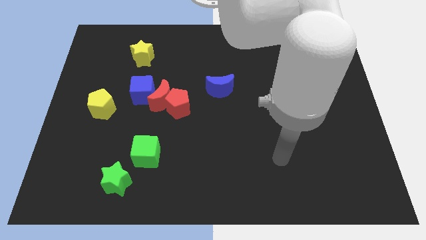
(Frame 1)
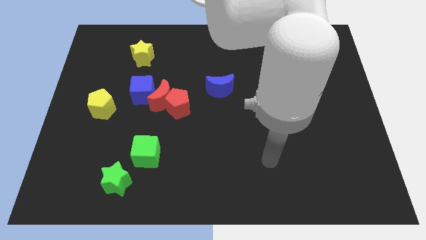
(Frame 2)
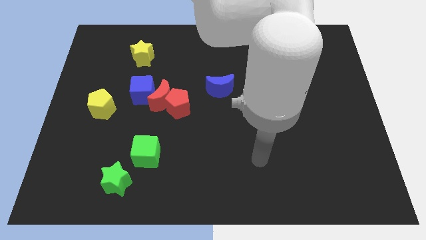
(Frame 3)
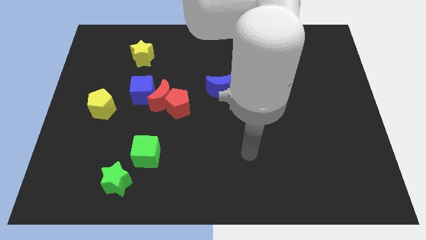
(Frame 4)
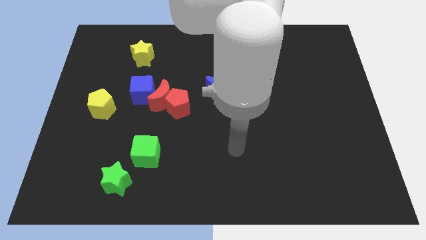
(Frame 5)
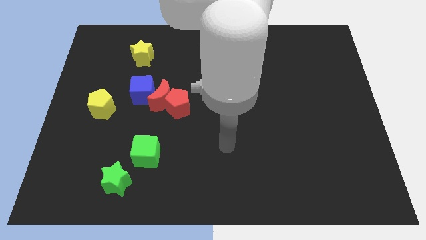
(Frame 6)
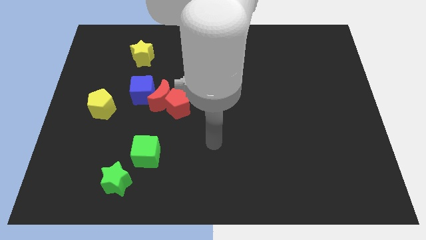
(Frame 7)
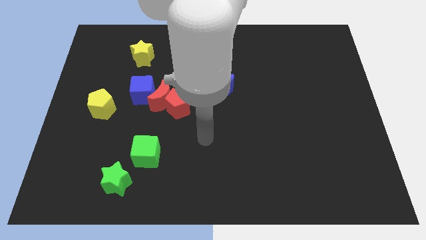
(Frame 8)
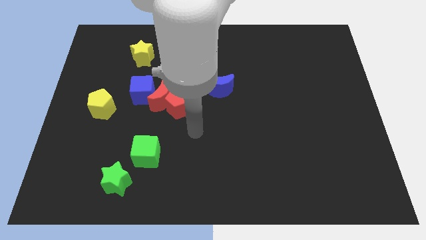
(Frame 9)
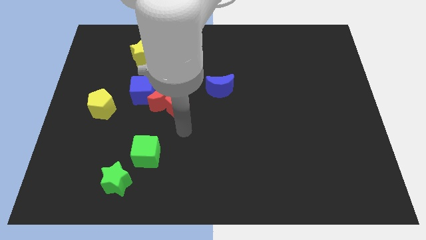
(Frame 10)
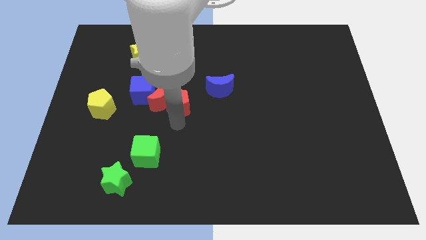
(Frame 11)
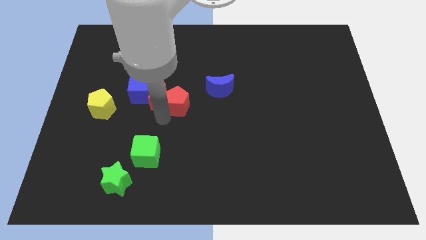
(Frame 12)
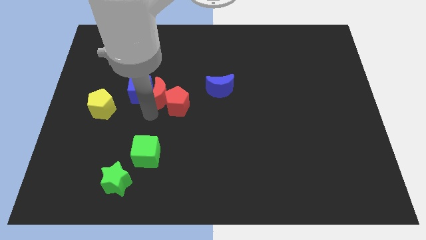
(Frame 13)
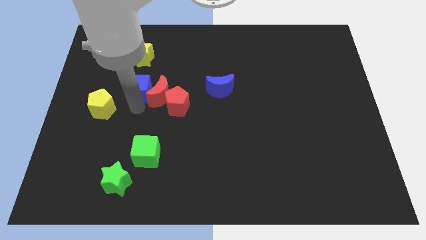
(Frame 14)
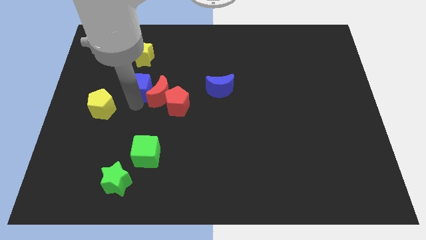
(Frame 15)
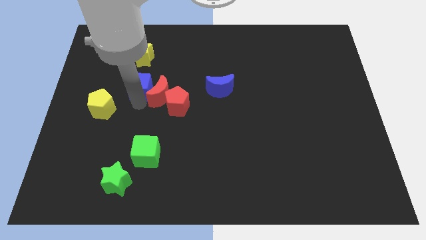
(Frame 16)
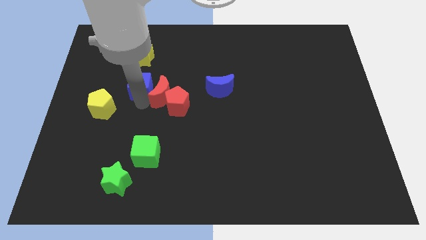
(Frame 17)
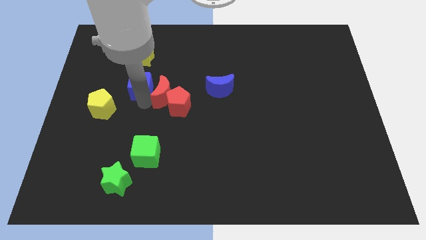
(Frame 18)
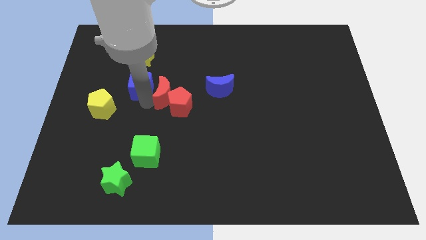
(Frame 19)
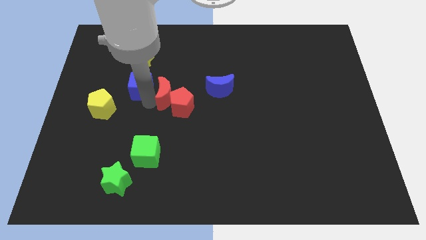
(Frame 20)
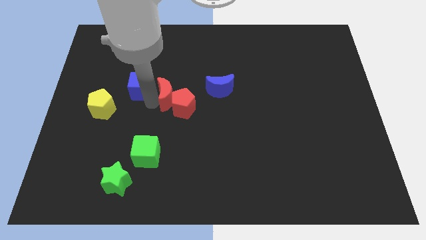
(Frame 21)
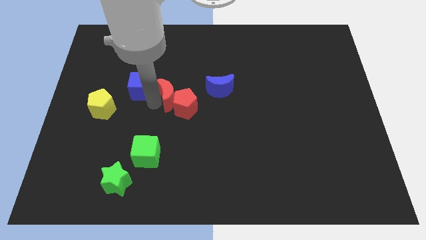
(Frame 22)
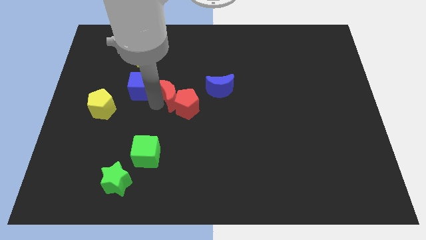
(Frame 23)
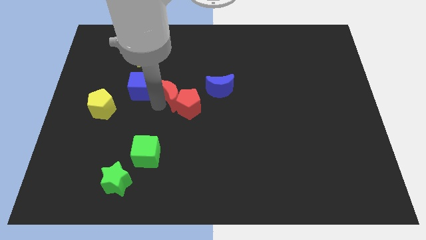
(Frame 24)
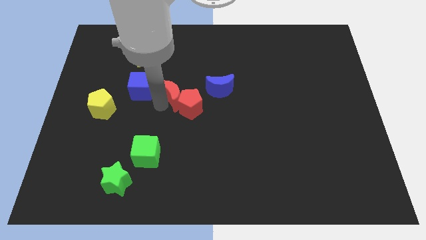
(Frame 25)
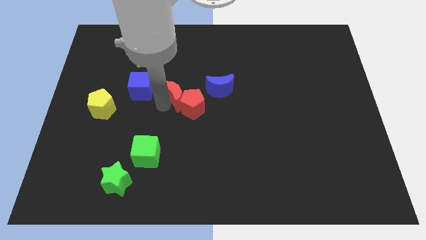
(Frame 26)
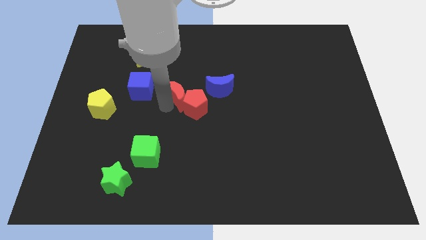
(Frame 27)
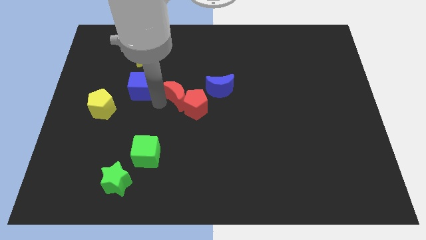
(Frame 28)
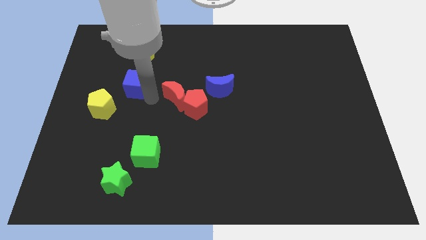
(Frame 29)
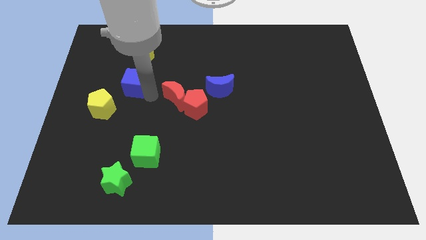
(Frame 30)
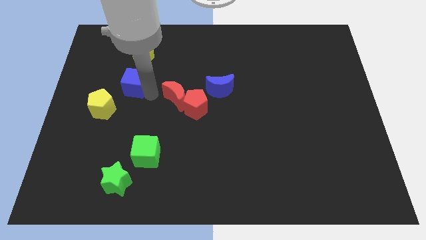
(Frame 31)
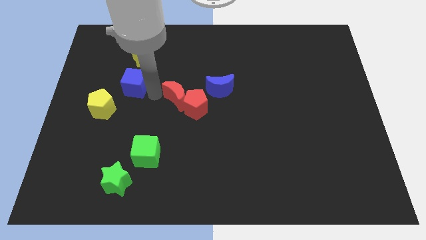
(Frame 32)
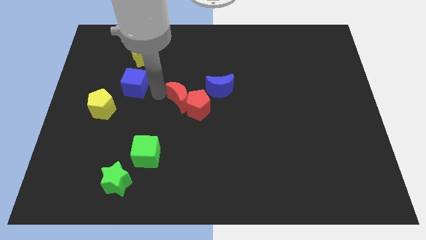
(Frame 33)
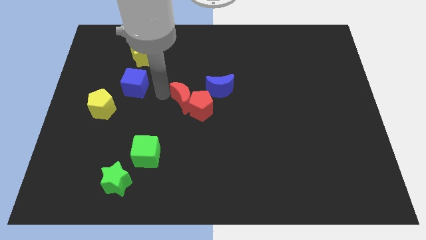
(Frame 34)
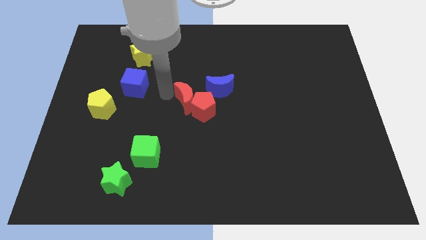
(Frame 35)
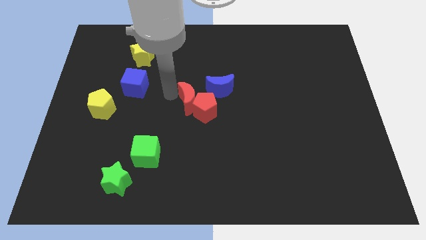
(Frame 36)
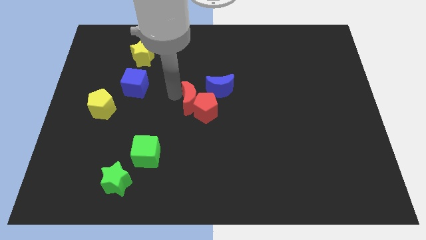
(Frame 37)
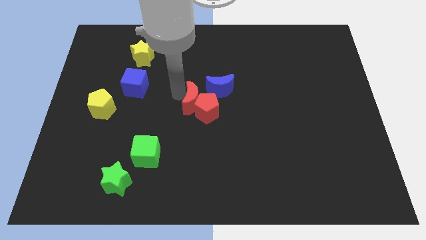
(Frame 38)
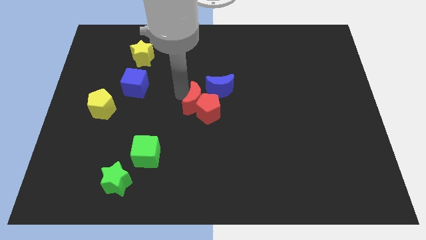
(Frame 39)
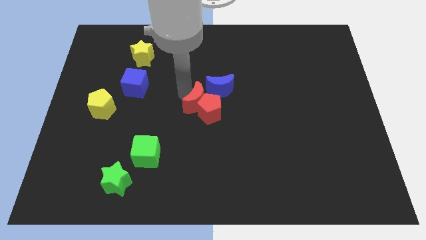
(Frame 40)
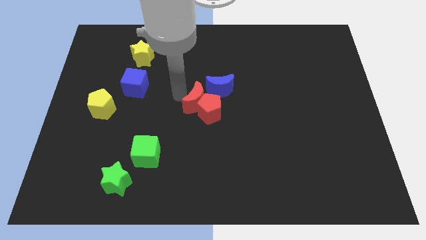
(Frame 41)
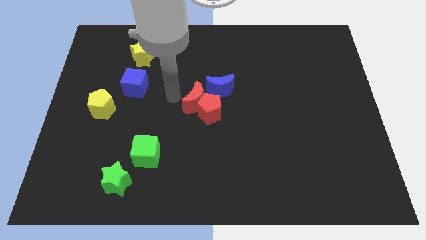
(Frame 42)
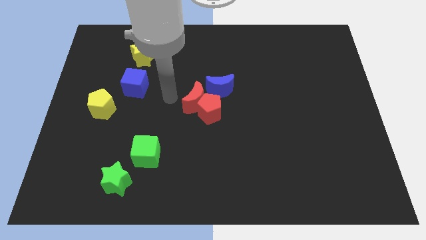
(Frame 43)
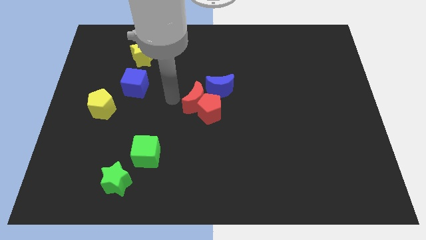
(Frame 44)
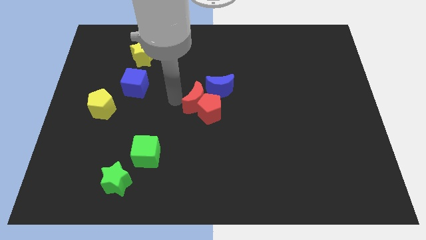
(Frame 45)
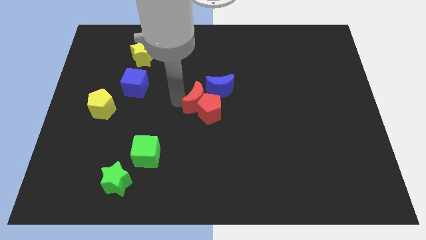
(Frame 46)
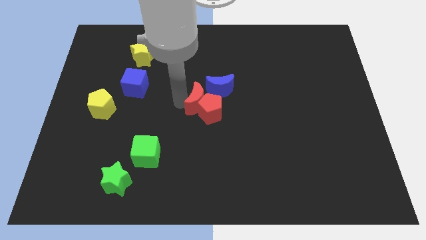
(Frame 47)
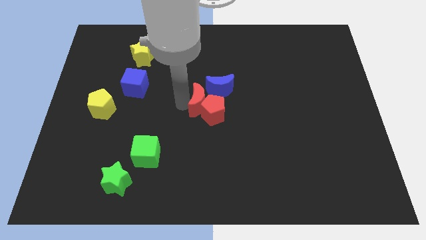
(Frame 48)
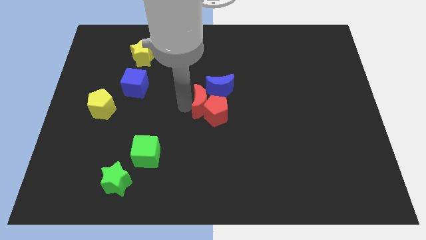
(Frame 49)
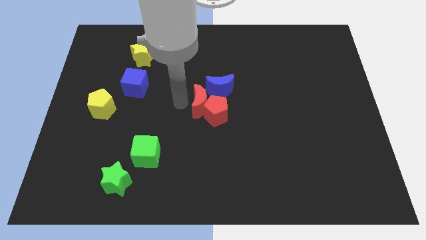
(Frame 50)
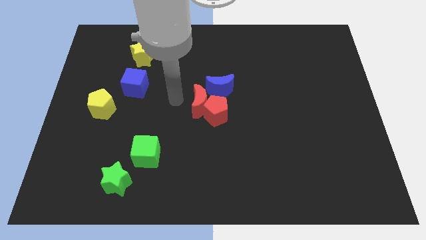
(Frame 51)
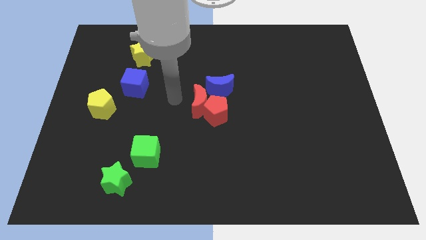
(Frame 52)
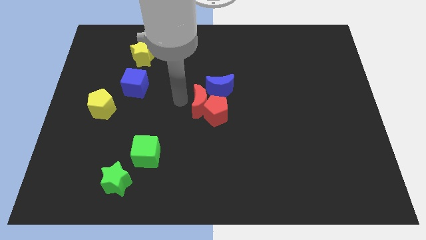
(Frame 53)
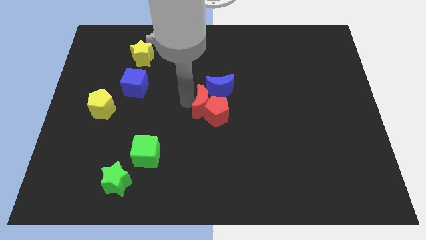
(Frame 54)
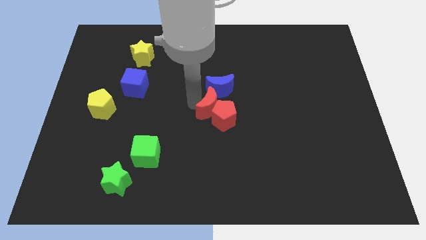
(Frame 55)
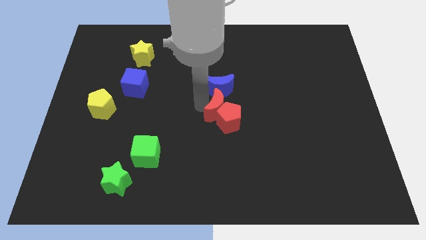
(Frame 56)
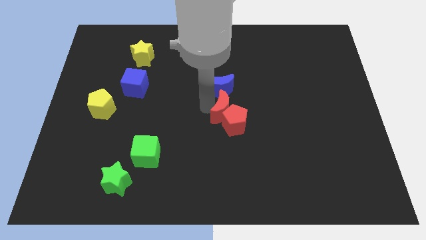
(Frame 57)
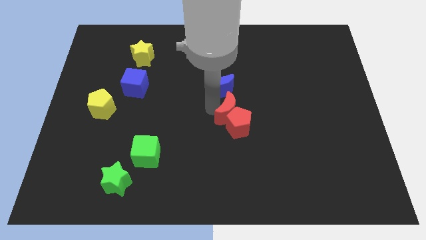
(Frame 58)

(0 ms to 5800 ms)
separate the red moon from the red pentagon and blue cube

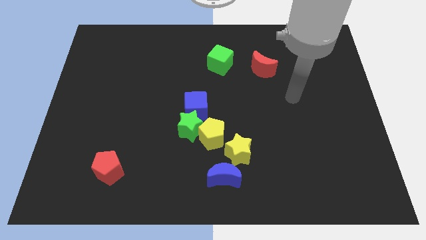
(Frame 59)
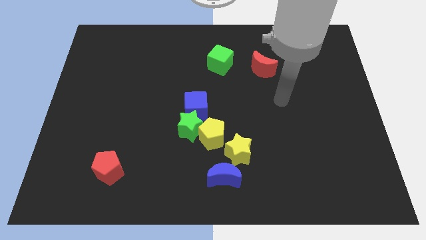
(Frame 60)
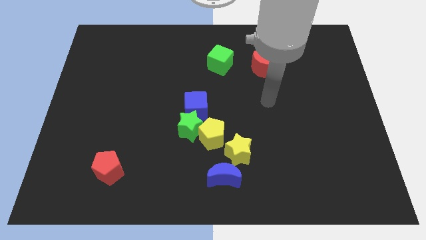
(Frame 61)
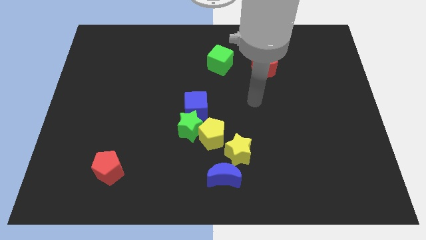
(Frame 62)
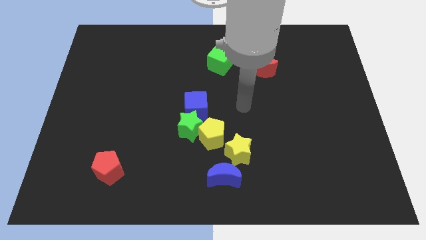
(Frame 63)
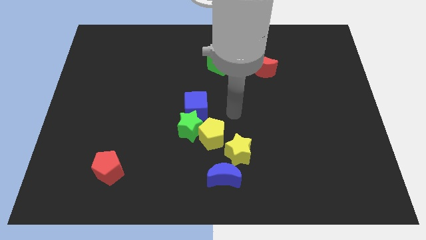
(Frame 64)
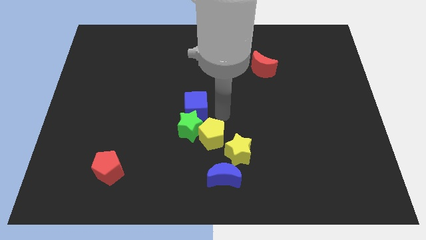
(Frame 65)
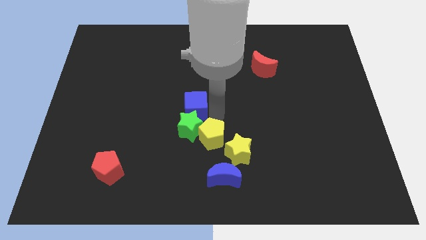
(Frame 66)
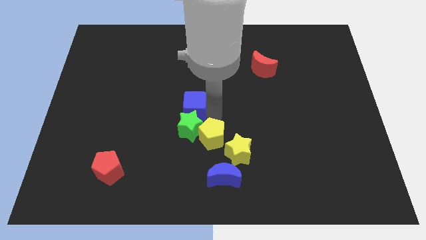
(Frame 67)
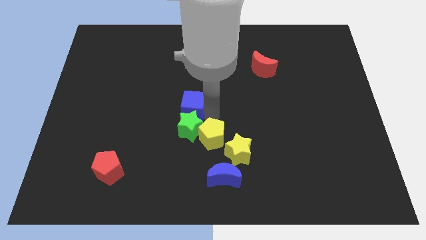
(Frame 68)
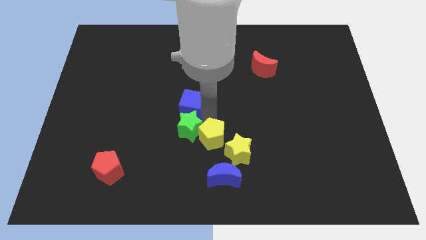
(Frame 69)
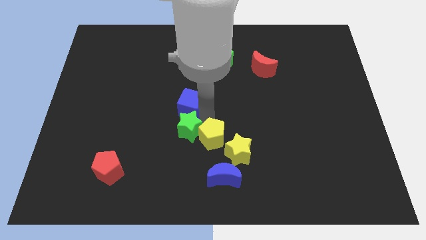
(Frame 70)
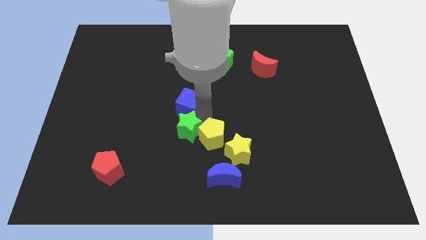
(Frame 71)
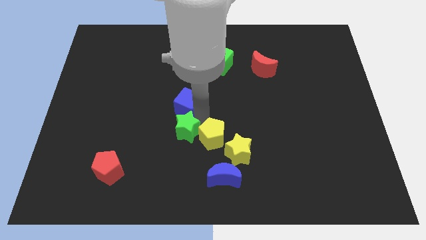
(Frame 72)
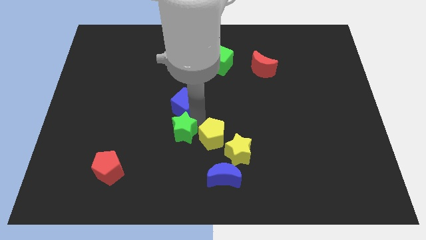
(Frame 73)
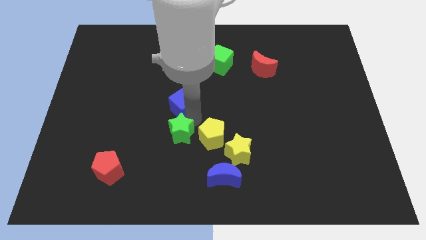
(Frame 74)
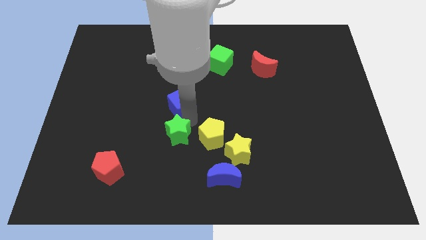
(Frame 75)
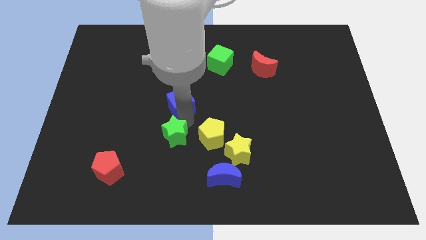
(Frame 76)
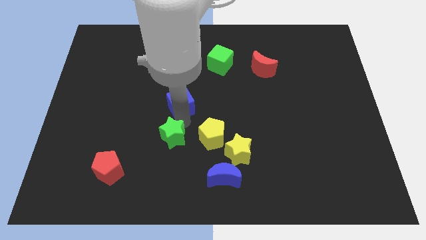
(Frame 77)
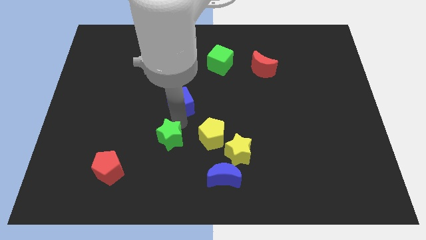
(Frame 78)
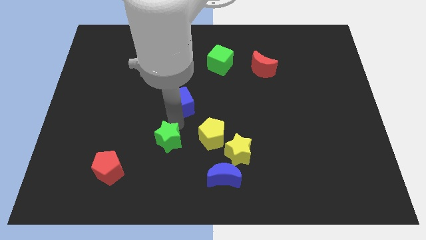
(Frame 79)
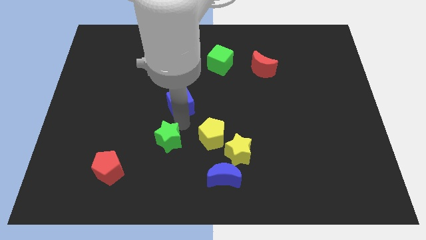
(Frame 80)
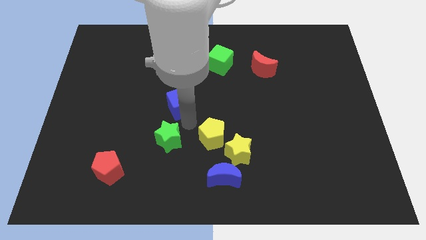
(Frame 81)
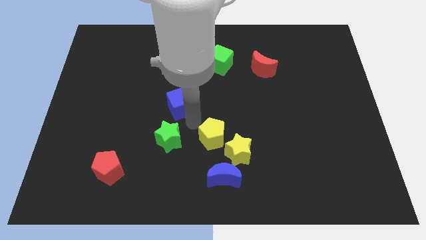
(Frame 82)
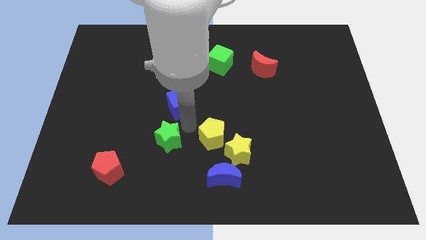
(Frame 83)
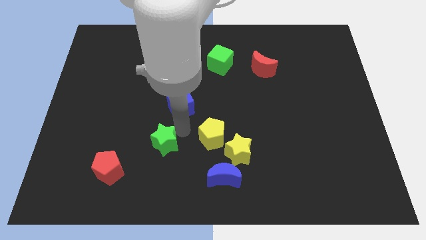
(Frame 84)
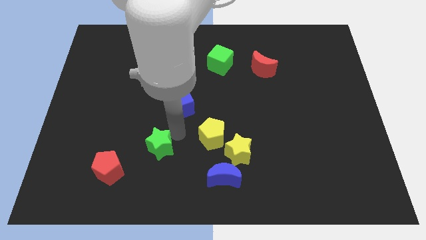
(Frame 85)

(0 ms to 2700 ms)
move the green star away from the yellow pentagon and blue cube

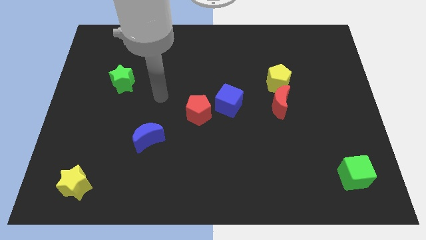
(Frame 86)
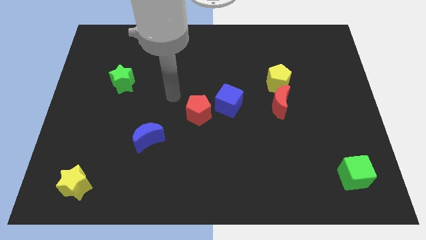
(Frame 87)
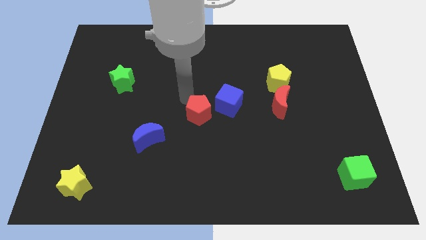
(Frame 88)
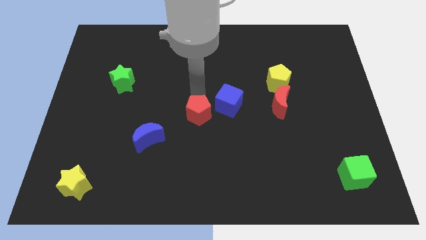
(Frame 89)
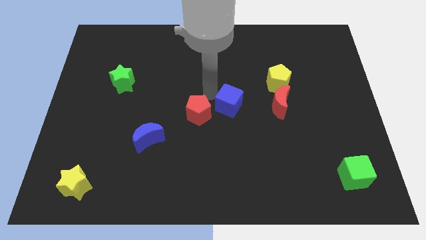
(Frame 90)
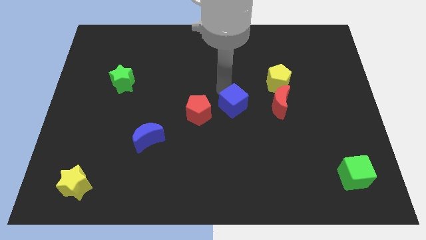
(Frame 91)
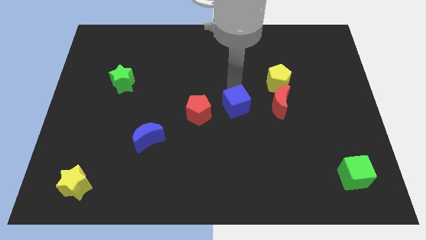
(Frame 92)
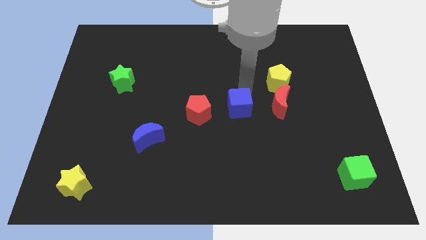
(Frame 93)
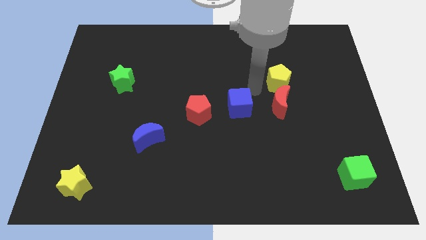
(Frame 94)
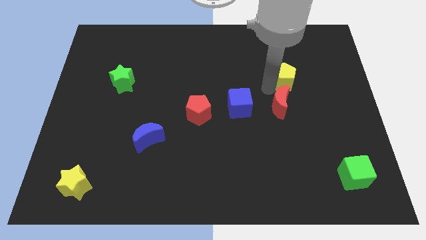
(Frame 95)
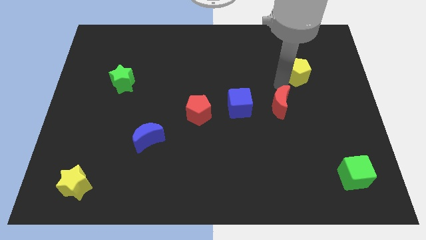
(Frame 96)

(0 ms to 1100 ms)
move the red moon away from the yellow pentagon
